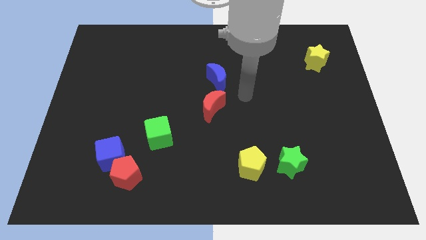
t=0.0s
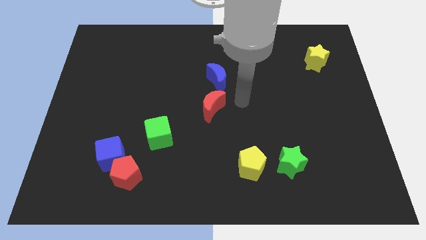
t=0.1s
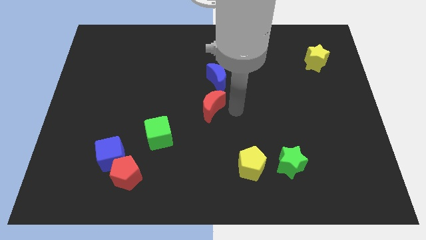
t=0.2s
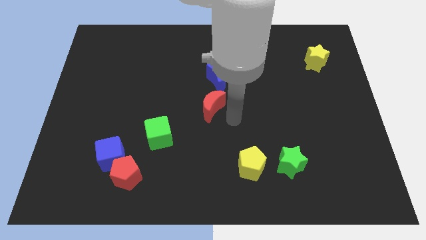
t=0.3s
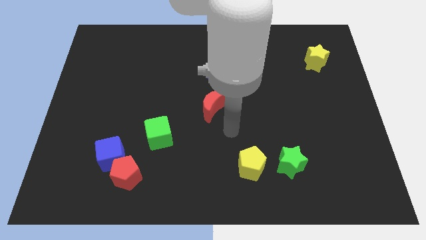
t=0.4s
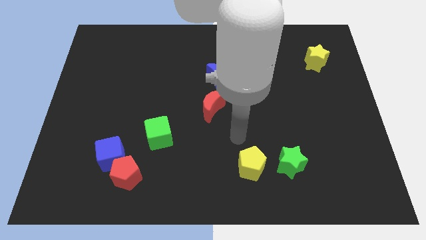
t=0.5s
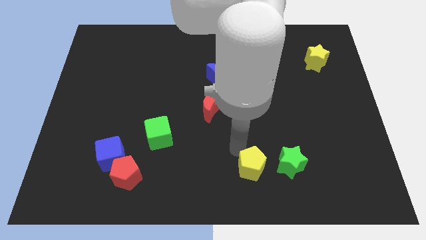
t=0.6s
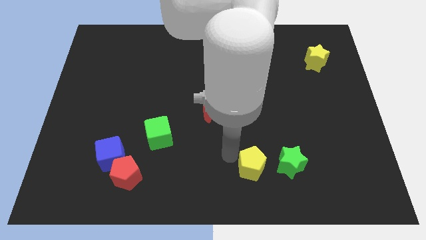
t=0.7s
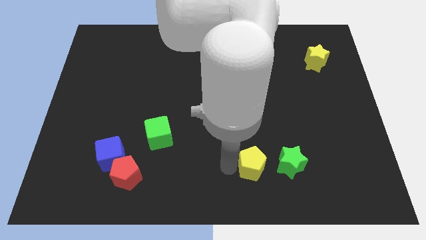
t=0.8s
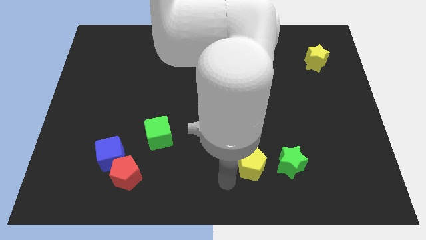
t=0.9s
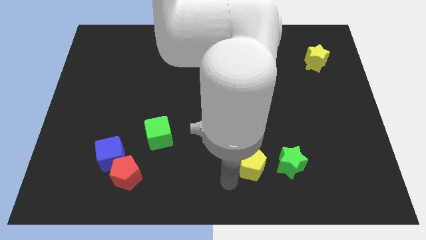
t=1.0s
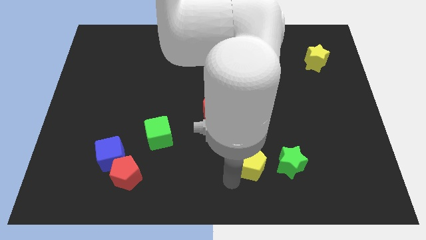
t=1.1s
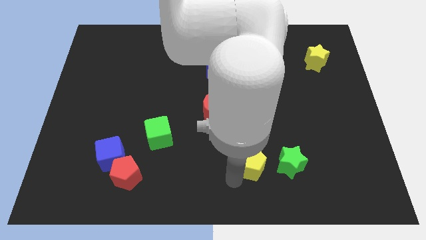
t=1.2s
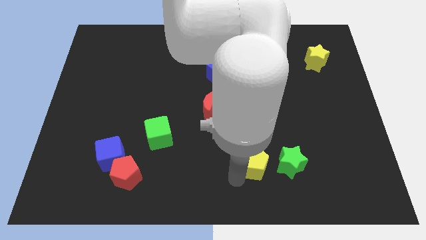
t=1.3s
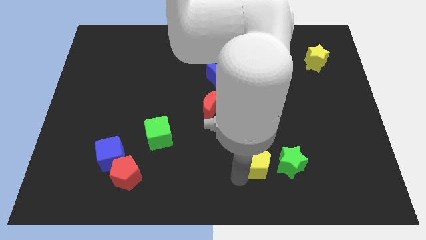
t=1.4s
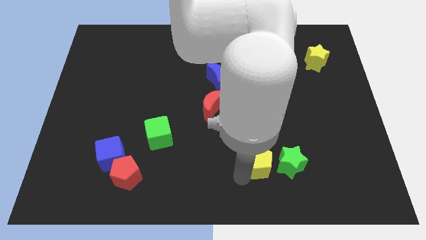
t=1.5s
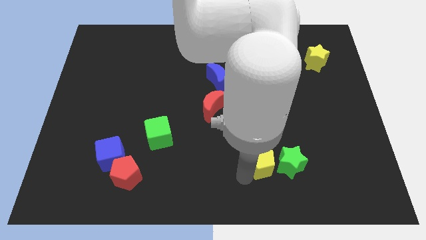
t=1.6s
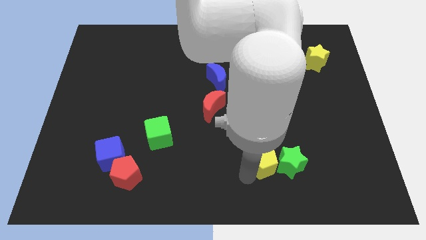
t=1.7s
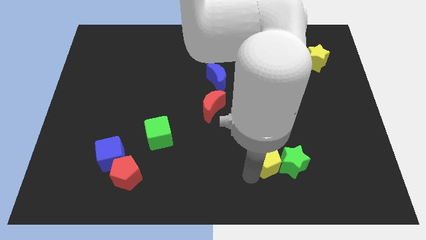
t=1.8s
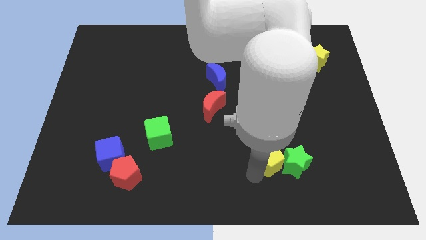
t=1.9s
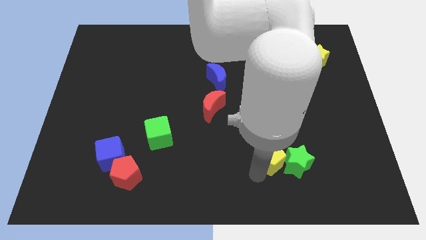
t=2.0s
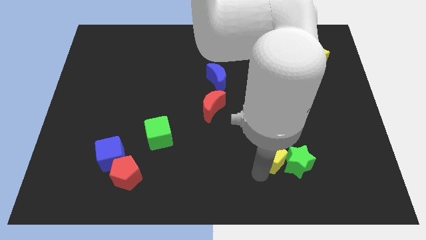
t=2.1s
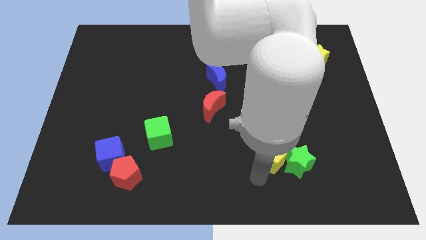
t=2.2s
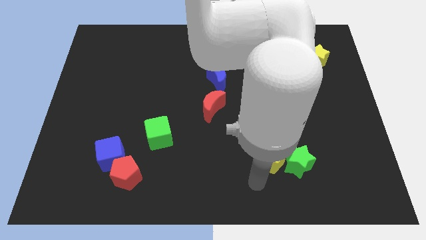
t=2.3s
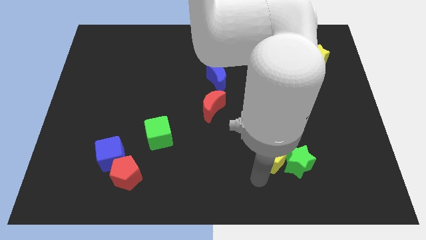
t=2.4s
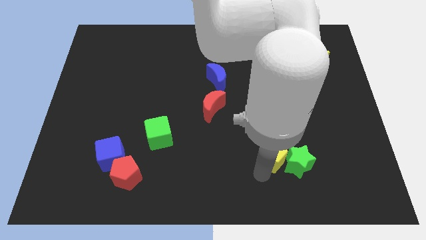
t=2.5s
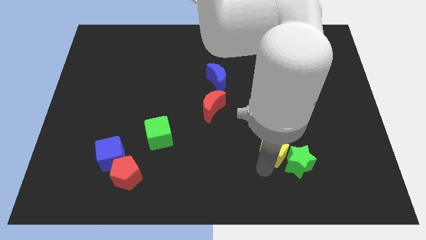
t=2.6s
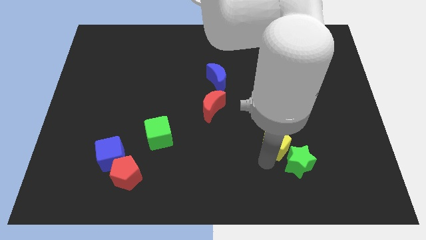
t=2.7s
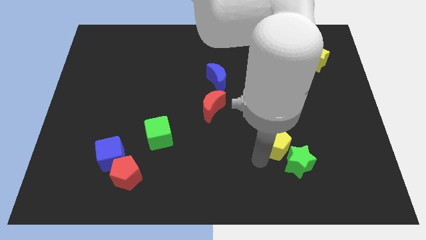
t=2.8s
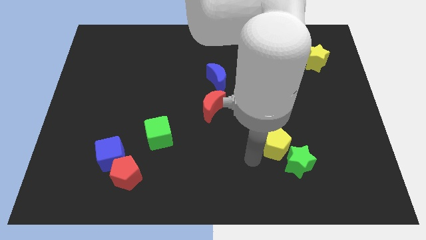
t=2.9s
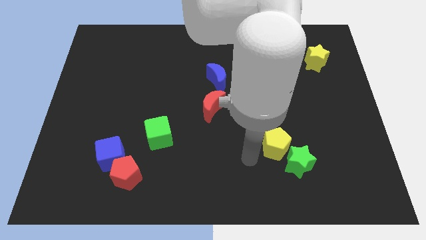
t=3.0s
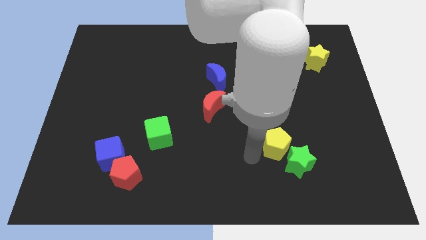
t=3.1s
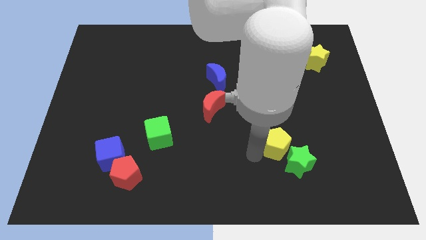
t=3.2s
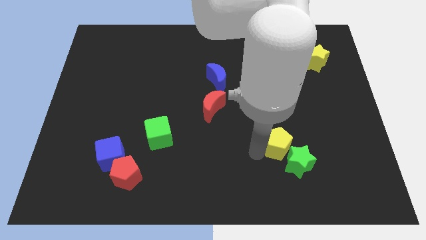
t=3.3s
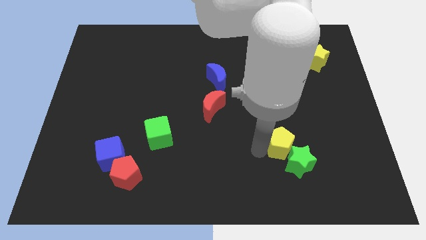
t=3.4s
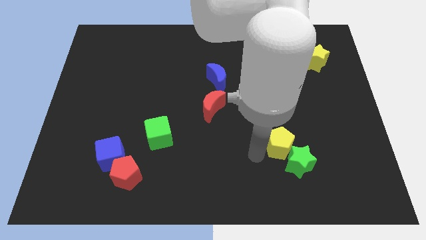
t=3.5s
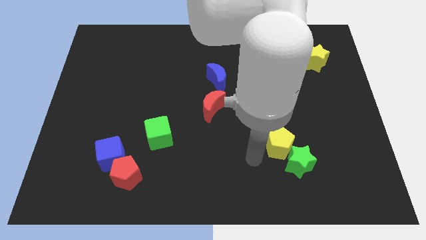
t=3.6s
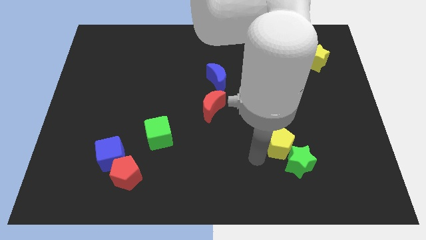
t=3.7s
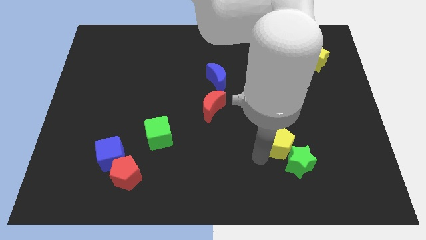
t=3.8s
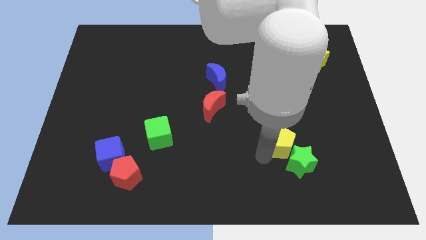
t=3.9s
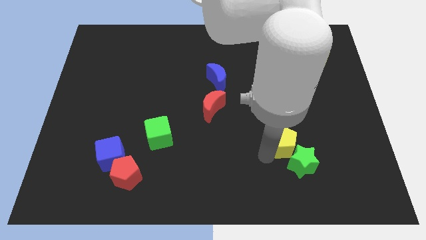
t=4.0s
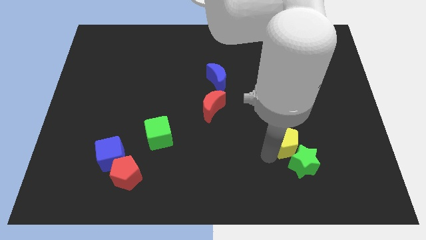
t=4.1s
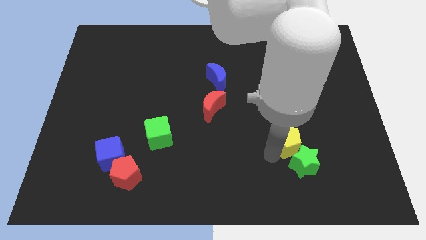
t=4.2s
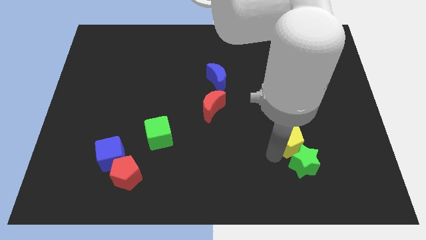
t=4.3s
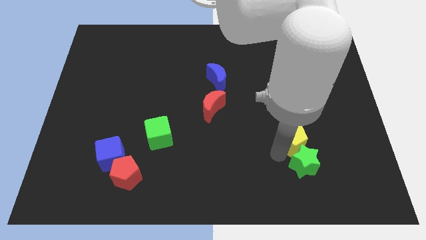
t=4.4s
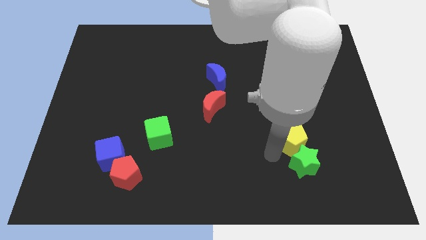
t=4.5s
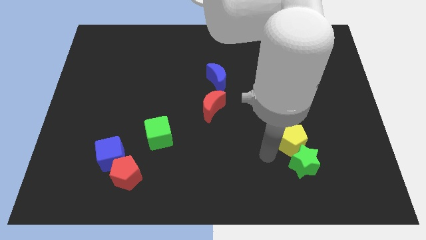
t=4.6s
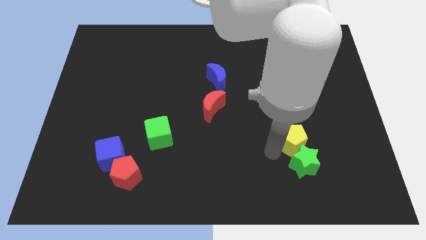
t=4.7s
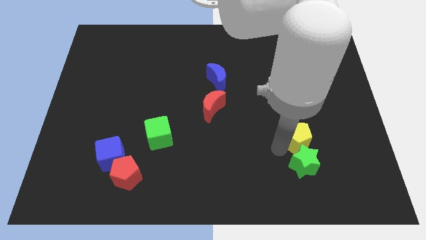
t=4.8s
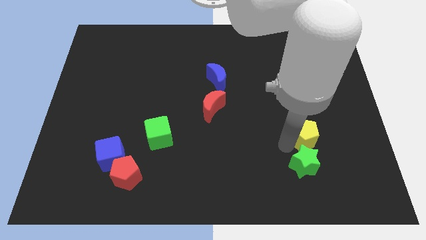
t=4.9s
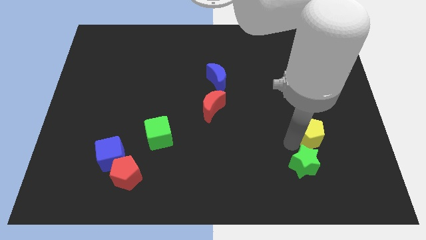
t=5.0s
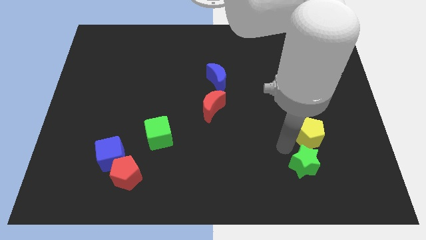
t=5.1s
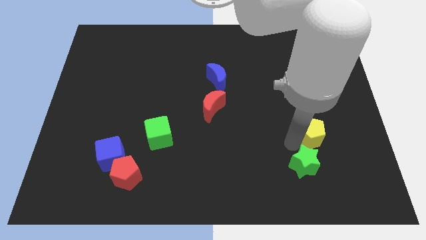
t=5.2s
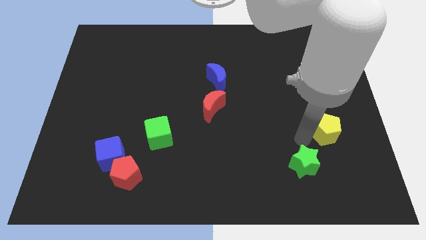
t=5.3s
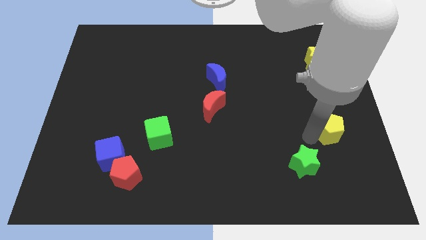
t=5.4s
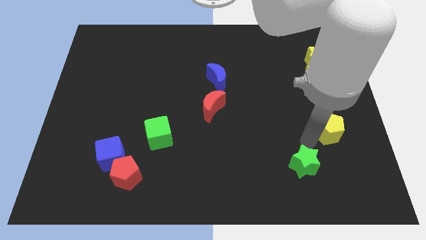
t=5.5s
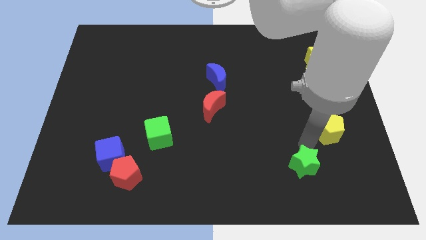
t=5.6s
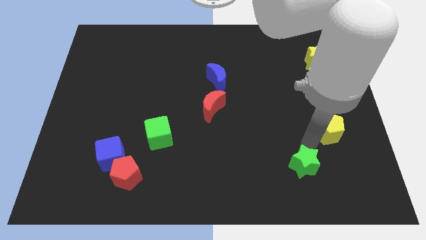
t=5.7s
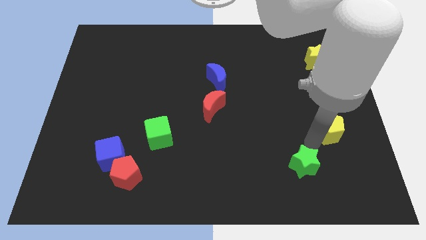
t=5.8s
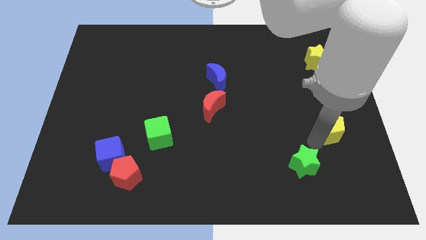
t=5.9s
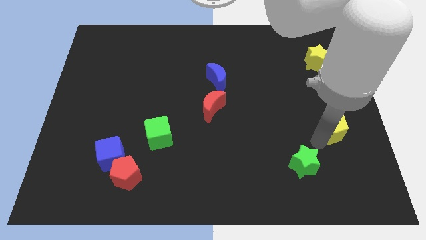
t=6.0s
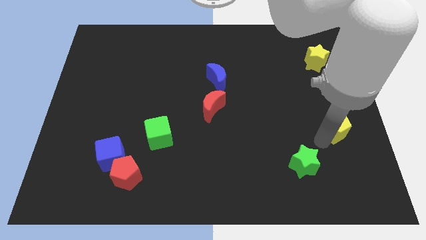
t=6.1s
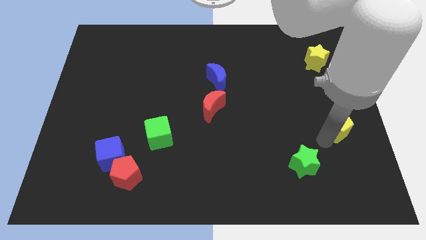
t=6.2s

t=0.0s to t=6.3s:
move the yellow pentagon to the right side of the board

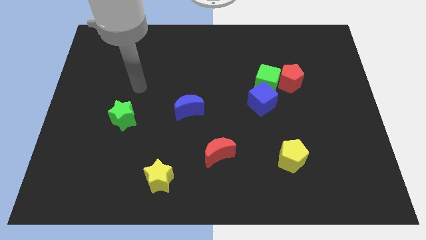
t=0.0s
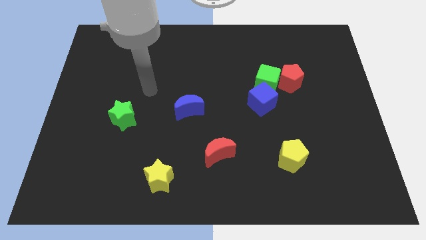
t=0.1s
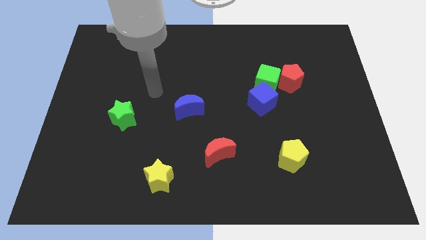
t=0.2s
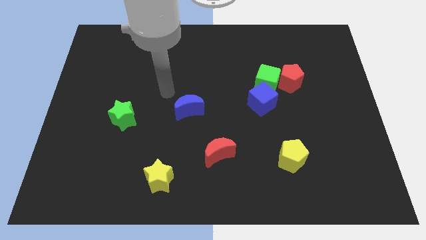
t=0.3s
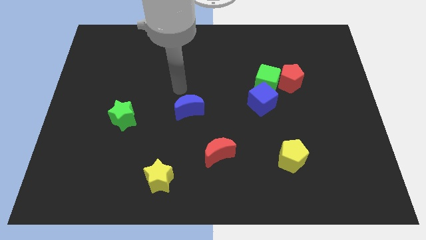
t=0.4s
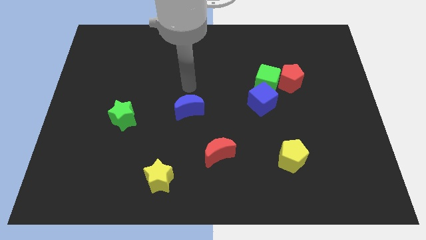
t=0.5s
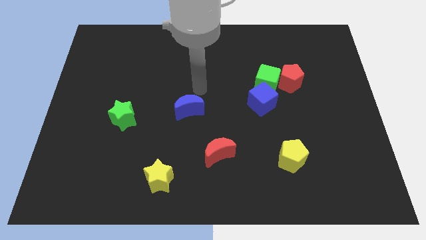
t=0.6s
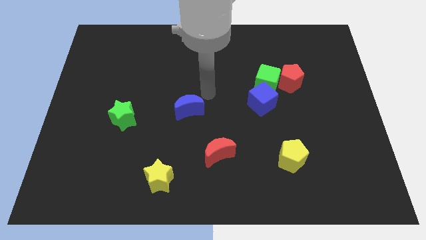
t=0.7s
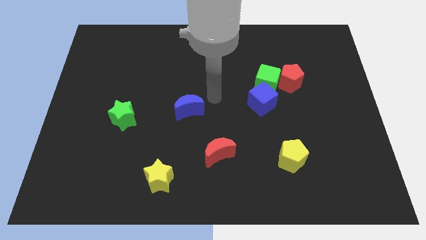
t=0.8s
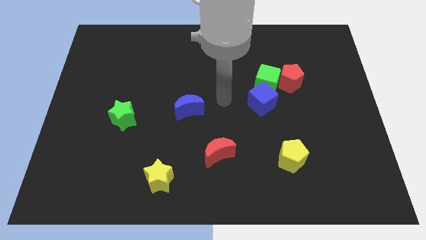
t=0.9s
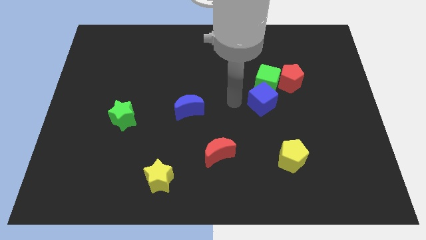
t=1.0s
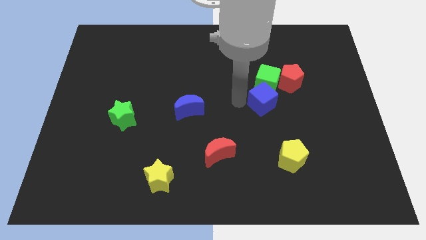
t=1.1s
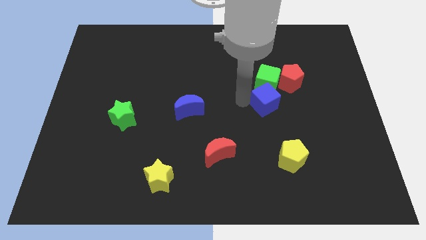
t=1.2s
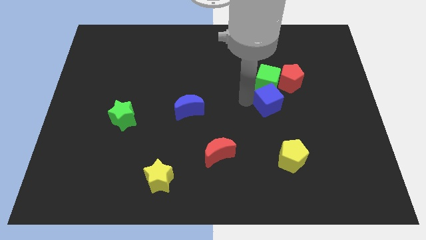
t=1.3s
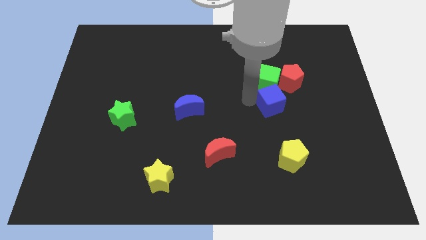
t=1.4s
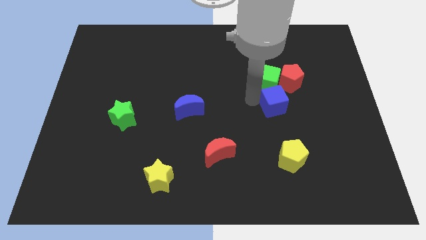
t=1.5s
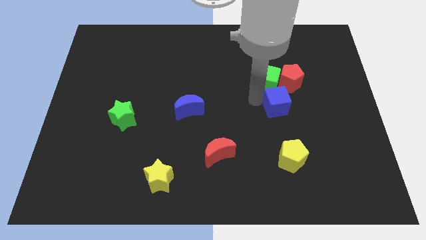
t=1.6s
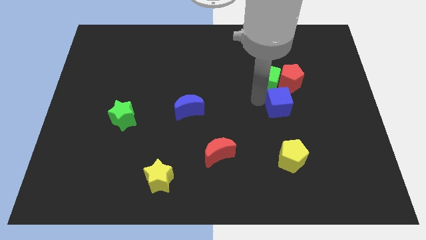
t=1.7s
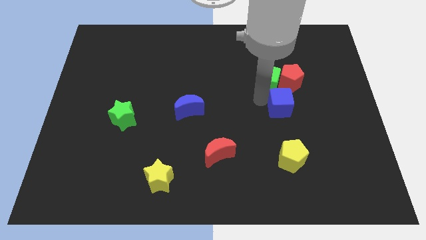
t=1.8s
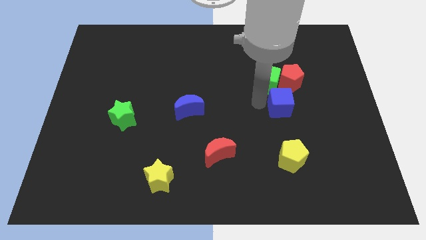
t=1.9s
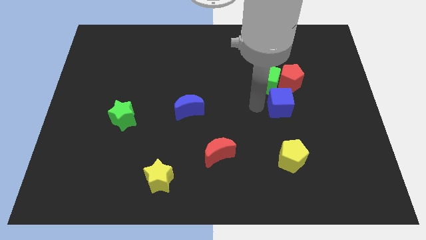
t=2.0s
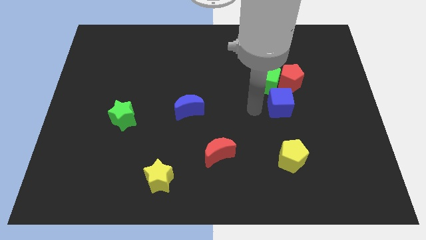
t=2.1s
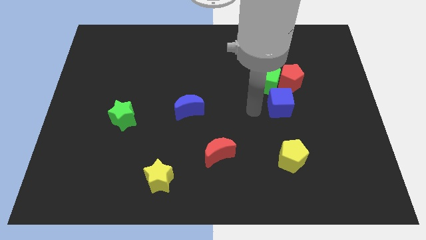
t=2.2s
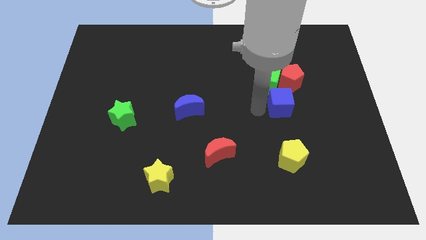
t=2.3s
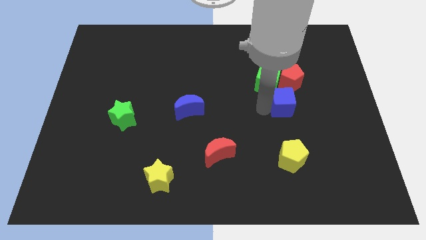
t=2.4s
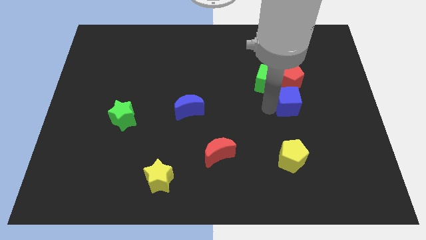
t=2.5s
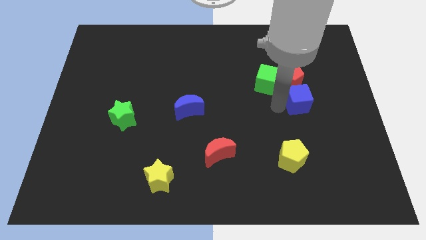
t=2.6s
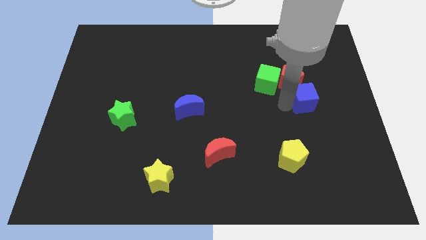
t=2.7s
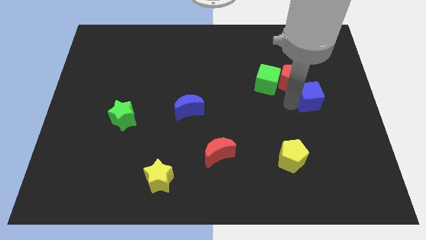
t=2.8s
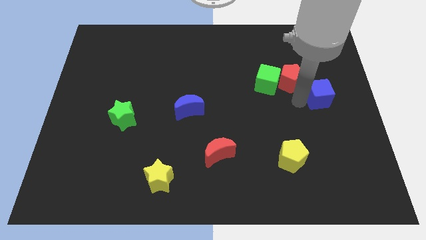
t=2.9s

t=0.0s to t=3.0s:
put the blue cube to the right side
